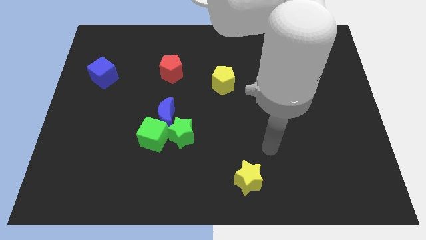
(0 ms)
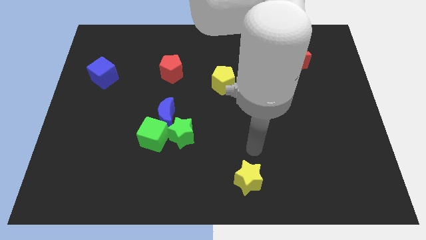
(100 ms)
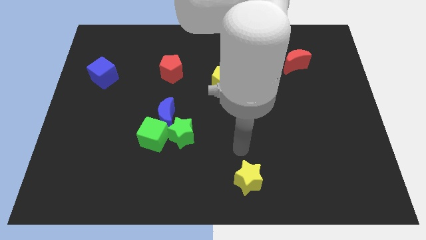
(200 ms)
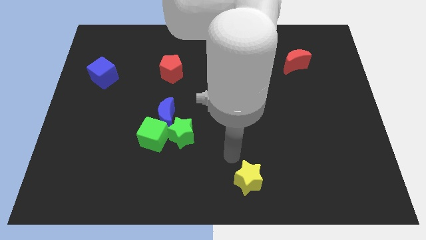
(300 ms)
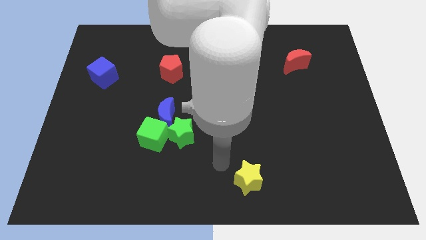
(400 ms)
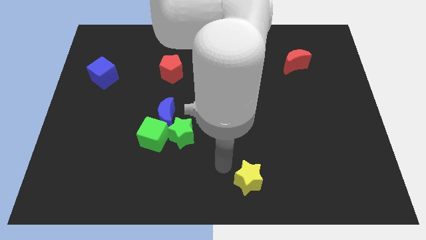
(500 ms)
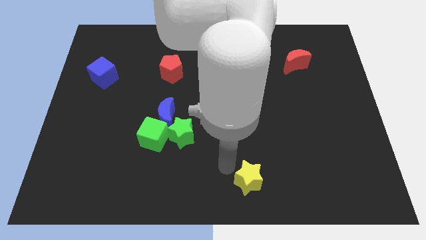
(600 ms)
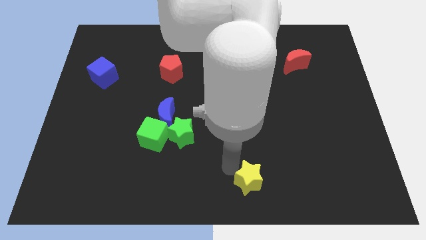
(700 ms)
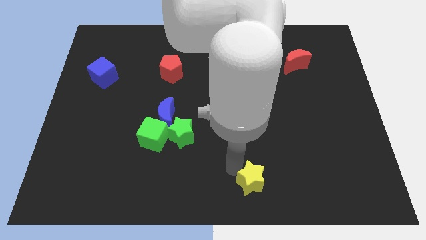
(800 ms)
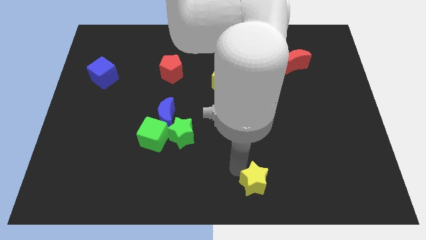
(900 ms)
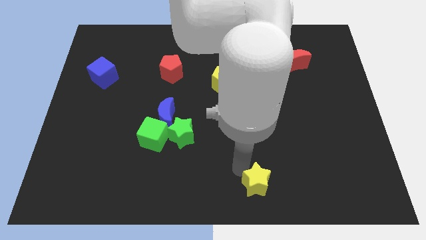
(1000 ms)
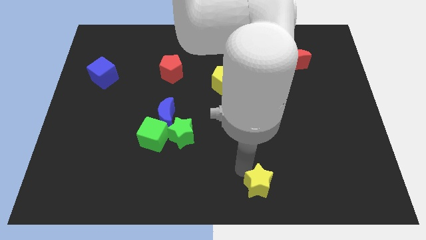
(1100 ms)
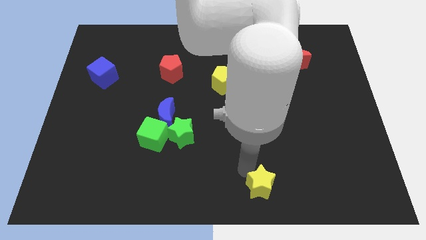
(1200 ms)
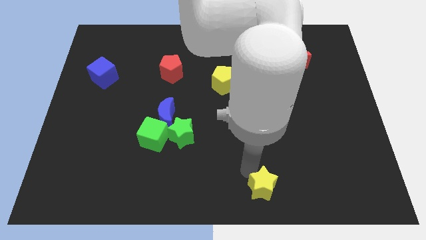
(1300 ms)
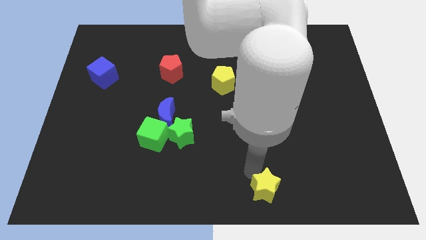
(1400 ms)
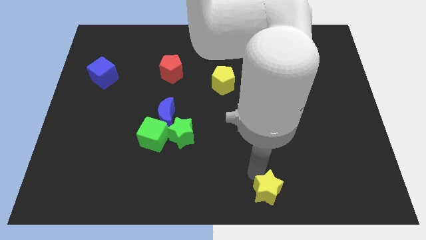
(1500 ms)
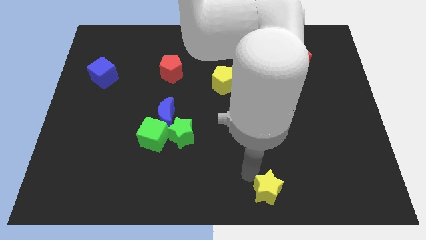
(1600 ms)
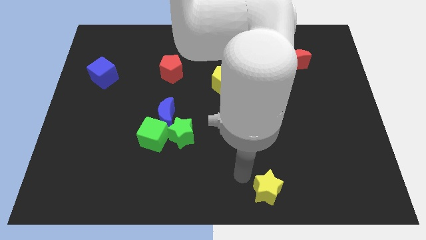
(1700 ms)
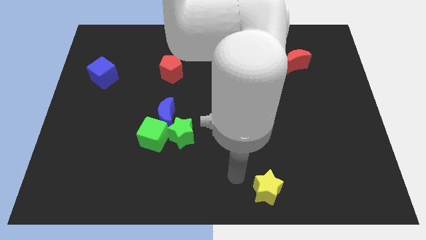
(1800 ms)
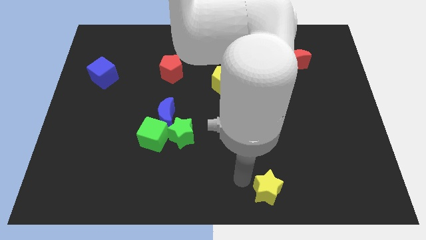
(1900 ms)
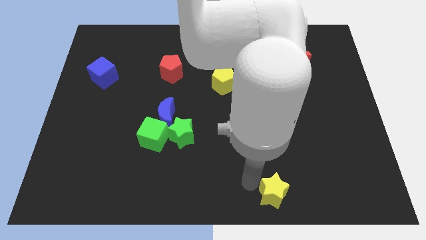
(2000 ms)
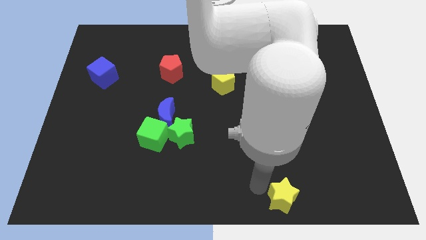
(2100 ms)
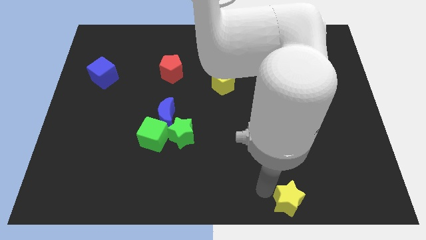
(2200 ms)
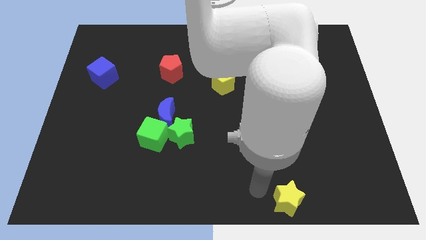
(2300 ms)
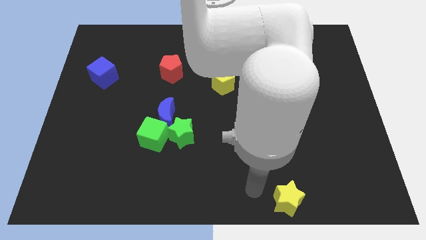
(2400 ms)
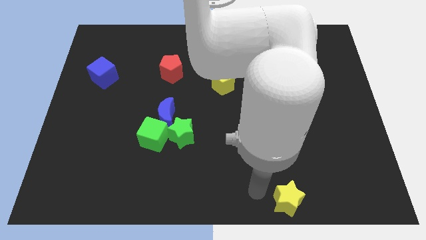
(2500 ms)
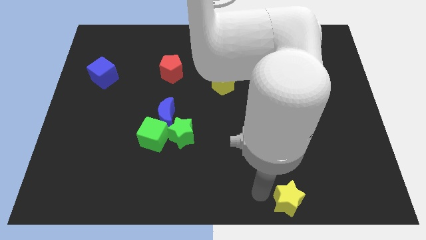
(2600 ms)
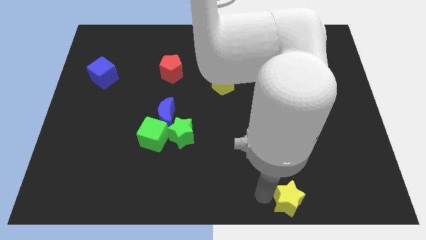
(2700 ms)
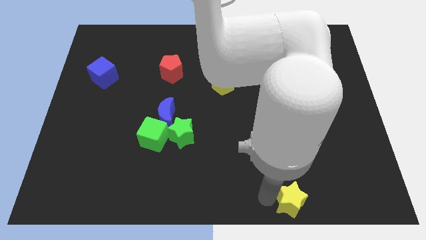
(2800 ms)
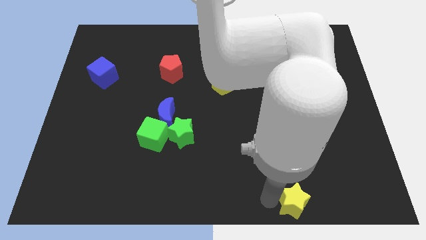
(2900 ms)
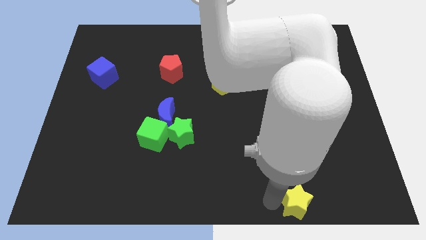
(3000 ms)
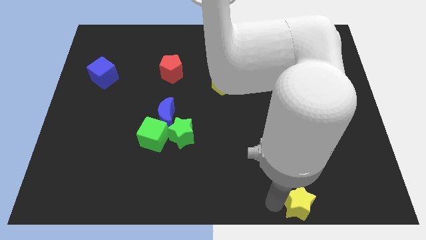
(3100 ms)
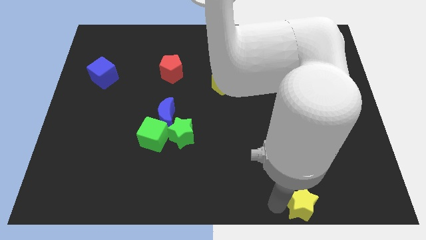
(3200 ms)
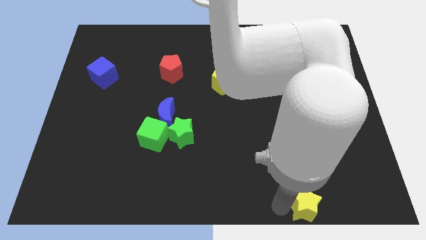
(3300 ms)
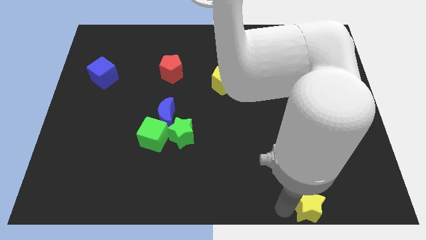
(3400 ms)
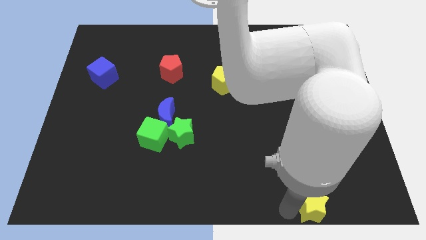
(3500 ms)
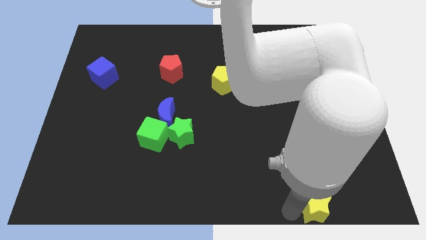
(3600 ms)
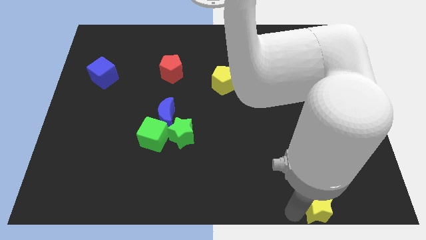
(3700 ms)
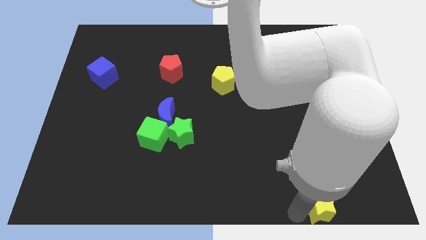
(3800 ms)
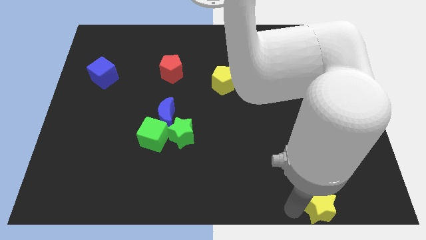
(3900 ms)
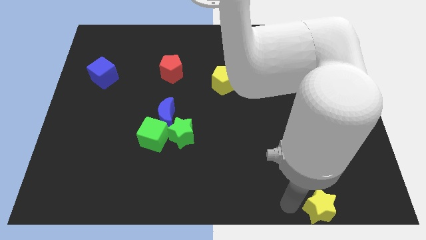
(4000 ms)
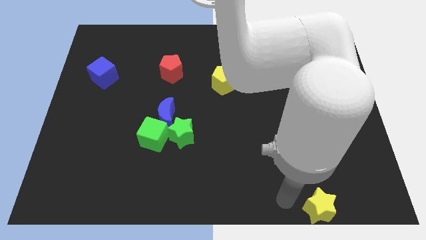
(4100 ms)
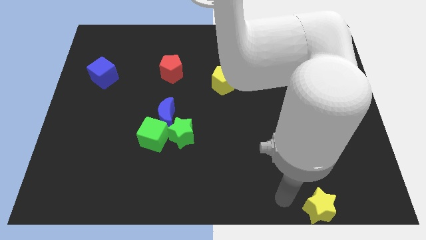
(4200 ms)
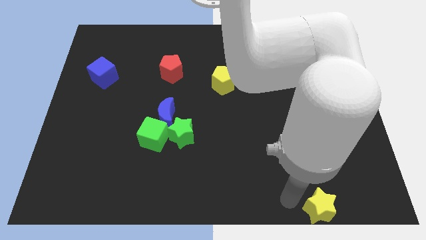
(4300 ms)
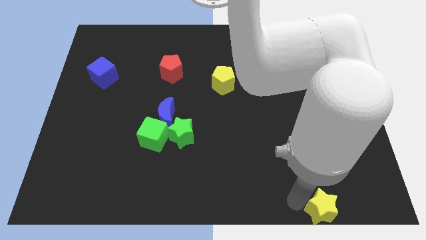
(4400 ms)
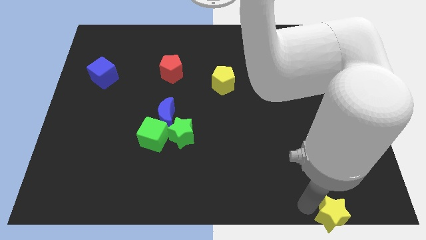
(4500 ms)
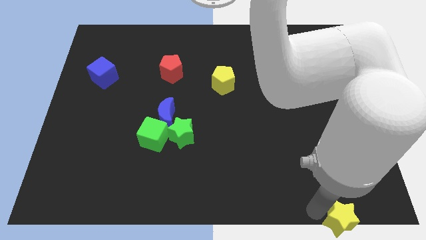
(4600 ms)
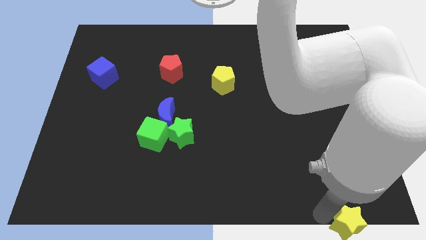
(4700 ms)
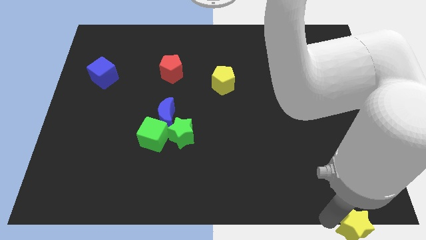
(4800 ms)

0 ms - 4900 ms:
move the yellow star to the lower right corner

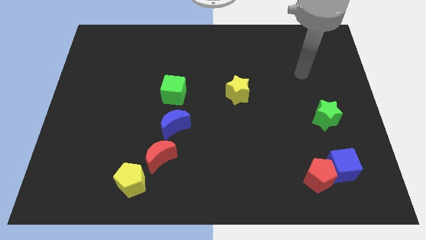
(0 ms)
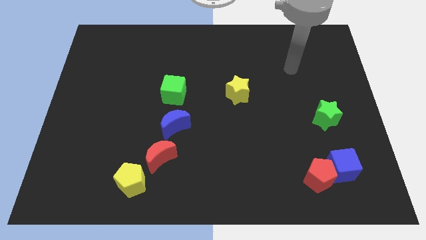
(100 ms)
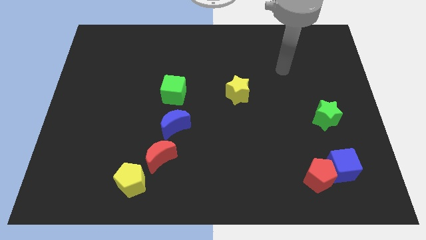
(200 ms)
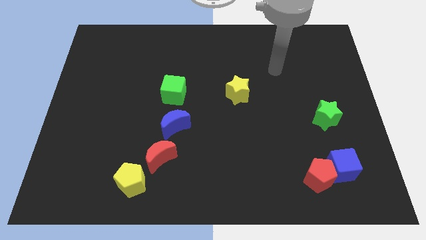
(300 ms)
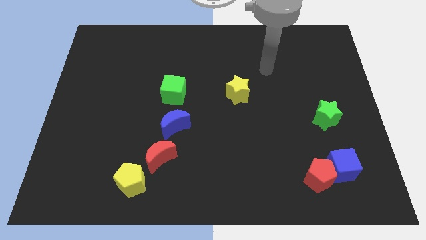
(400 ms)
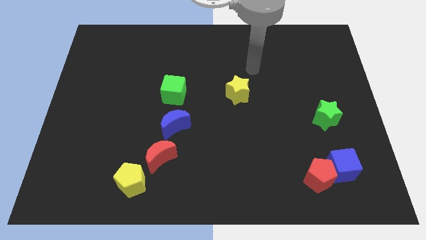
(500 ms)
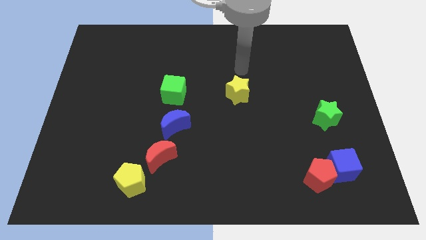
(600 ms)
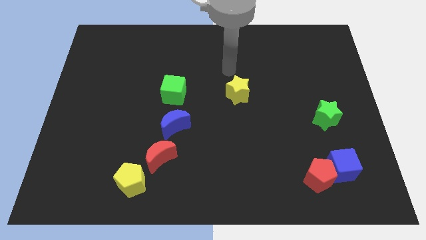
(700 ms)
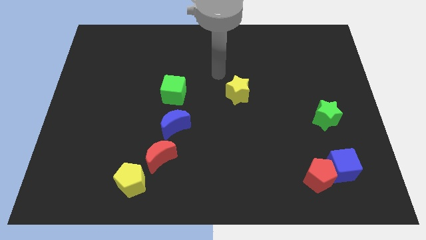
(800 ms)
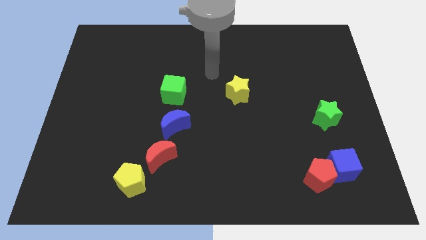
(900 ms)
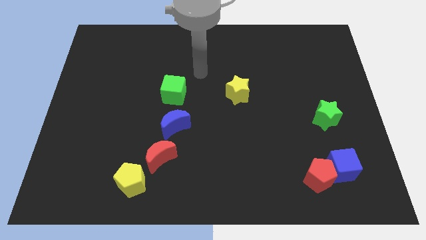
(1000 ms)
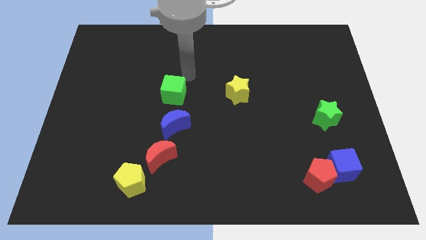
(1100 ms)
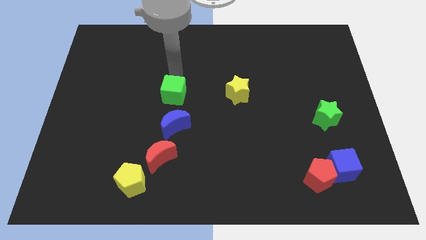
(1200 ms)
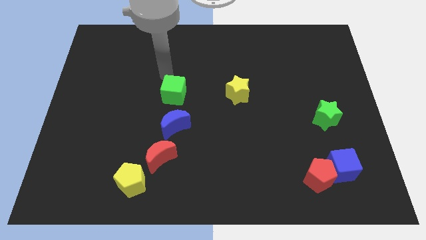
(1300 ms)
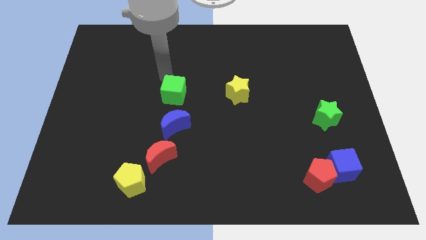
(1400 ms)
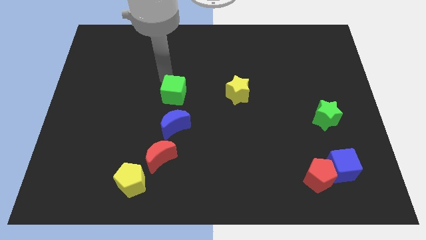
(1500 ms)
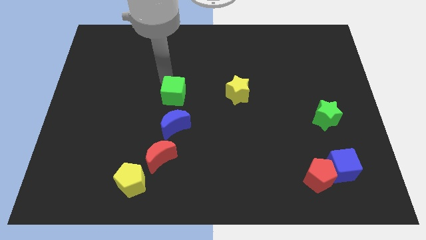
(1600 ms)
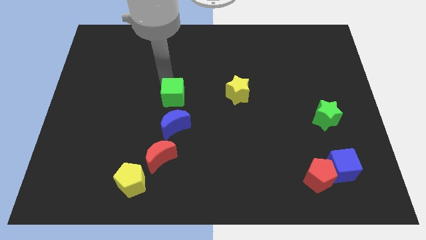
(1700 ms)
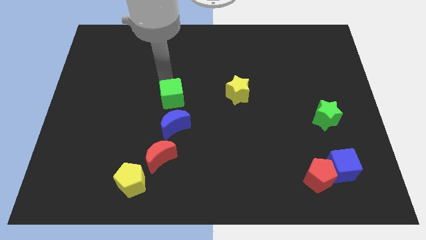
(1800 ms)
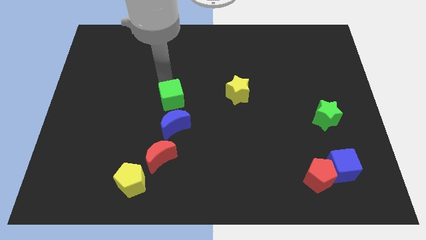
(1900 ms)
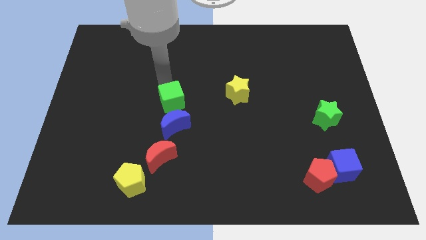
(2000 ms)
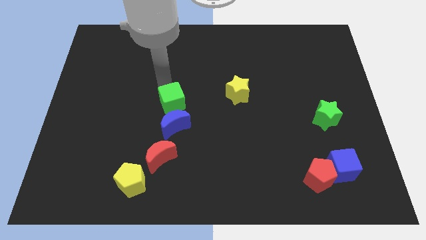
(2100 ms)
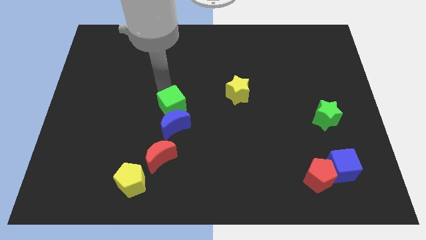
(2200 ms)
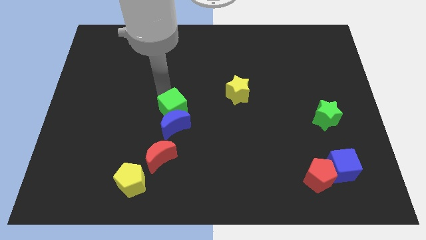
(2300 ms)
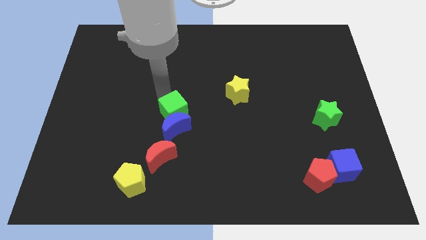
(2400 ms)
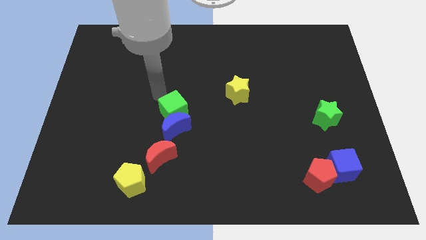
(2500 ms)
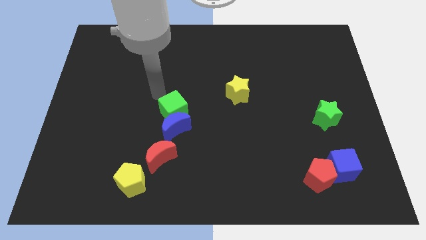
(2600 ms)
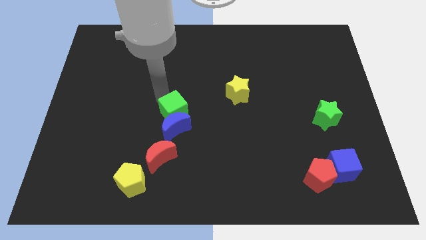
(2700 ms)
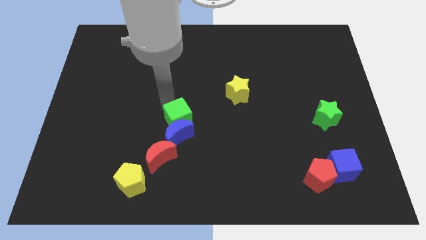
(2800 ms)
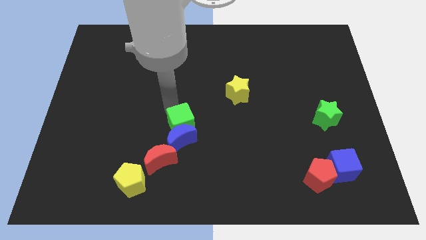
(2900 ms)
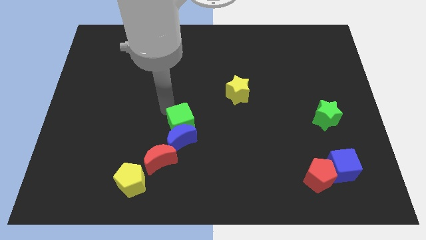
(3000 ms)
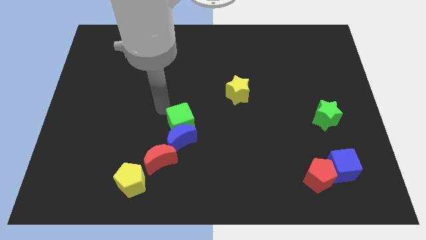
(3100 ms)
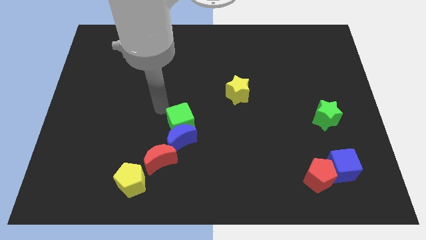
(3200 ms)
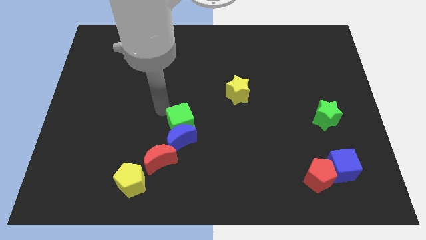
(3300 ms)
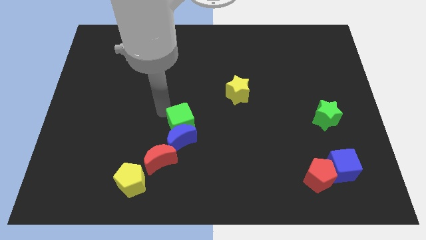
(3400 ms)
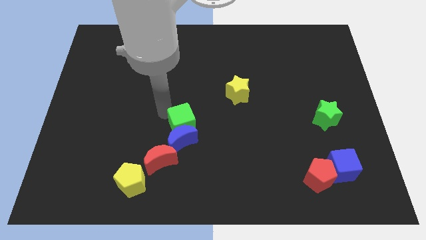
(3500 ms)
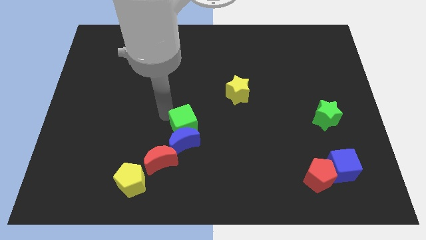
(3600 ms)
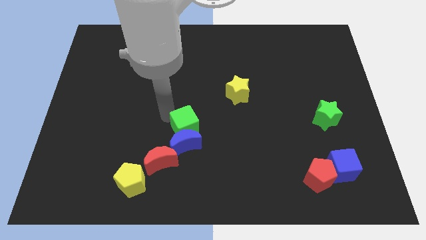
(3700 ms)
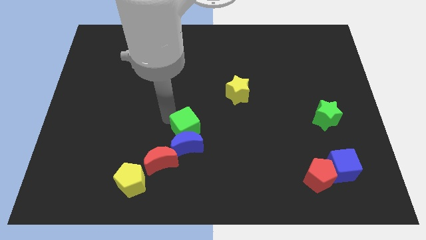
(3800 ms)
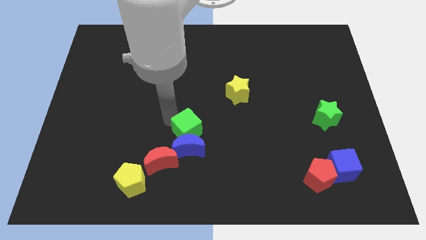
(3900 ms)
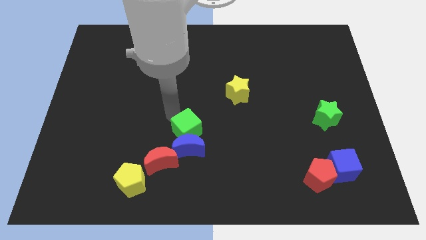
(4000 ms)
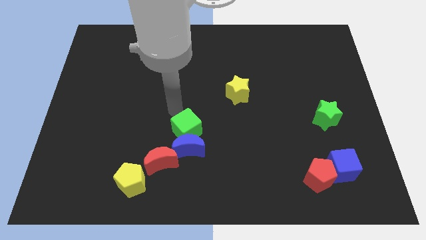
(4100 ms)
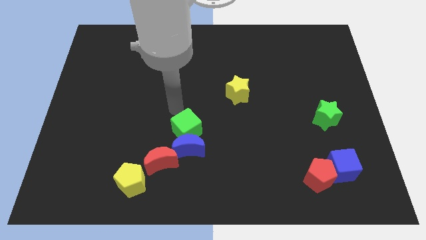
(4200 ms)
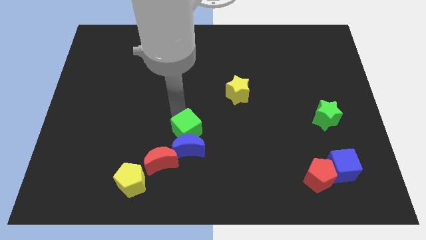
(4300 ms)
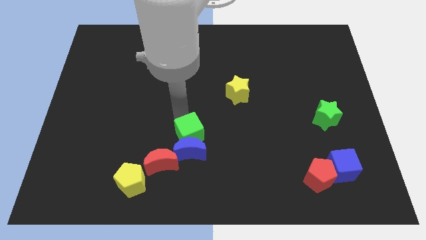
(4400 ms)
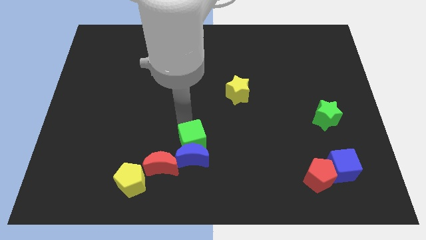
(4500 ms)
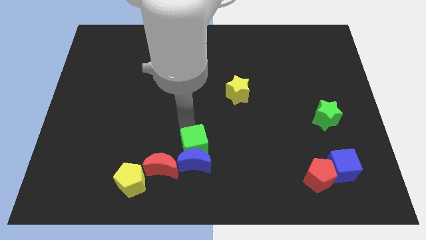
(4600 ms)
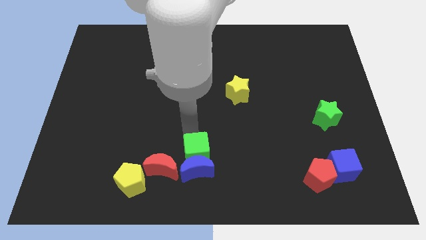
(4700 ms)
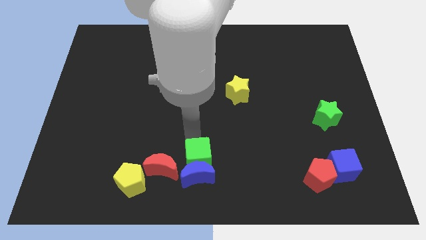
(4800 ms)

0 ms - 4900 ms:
slide the green cube to the bottom
